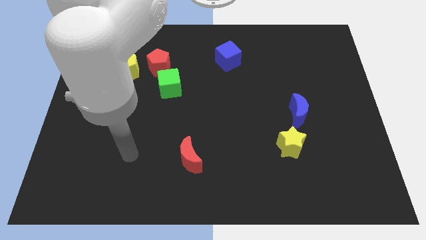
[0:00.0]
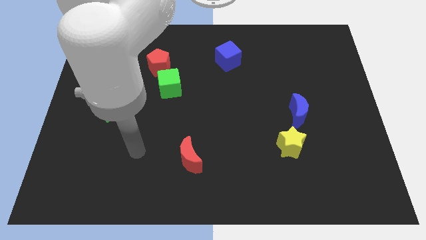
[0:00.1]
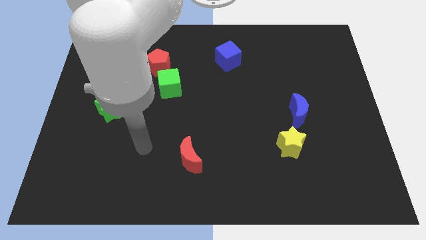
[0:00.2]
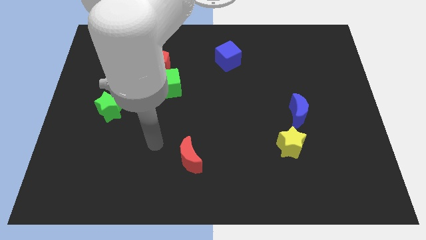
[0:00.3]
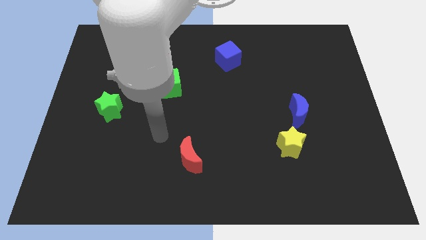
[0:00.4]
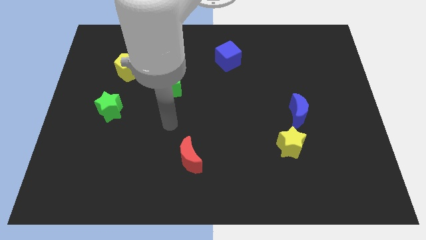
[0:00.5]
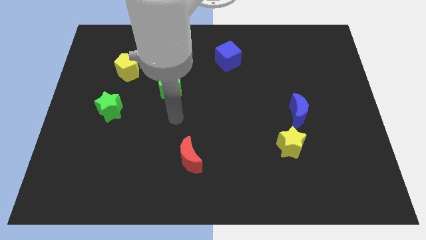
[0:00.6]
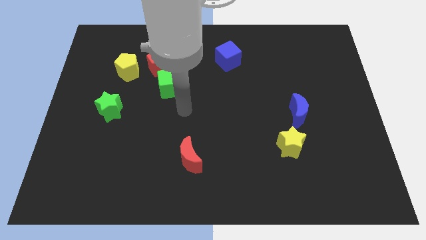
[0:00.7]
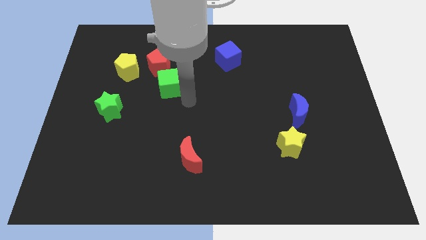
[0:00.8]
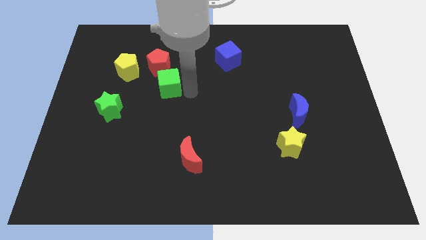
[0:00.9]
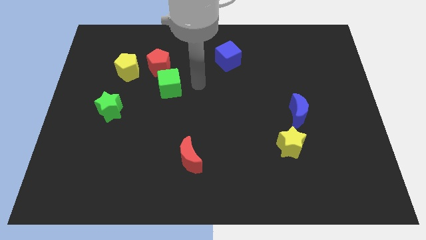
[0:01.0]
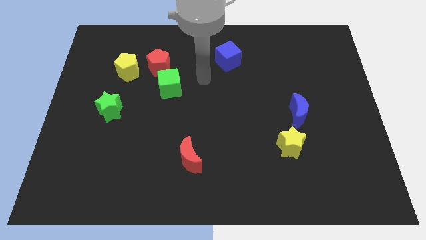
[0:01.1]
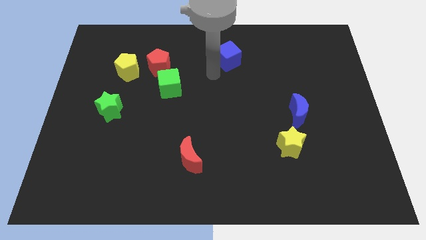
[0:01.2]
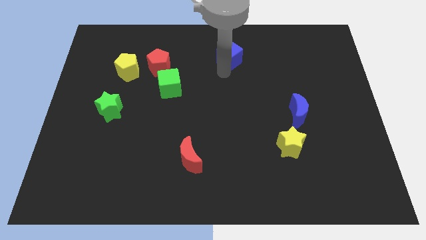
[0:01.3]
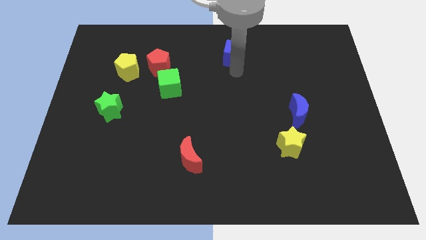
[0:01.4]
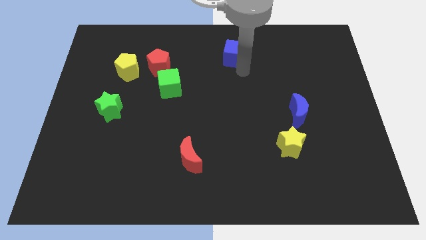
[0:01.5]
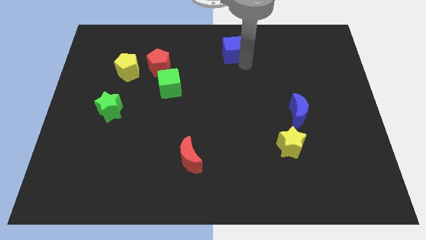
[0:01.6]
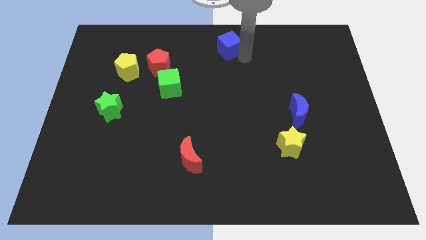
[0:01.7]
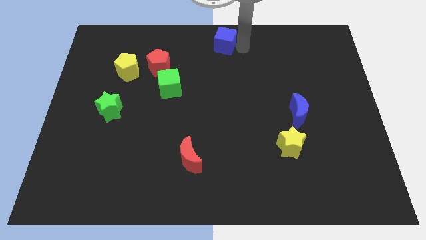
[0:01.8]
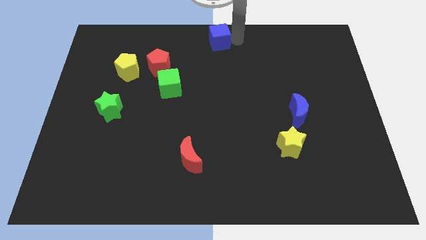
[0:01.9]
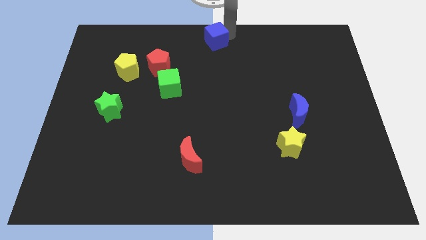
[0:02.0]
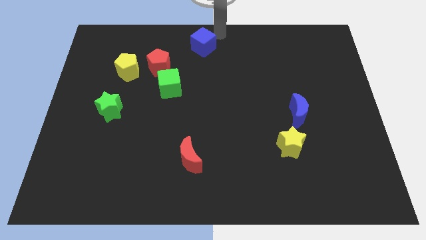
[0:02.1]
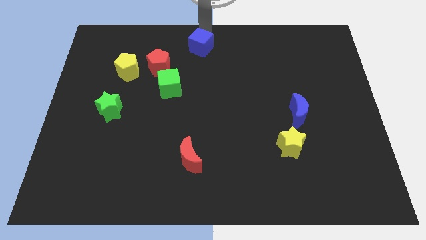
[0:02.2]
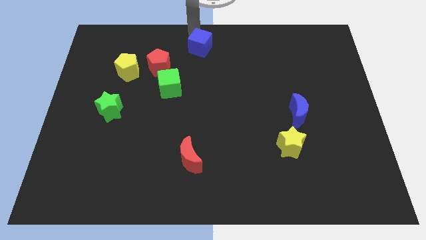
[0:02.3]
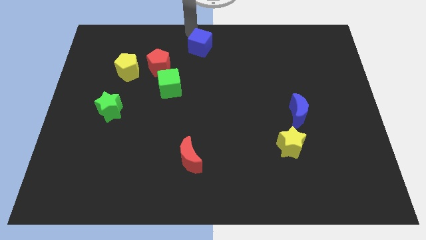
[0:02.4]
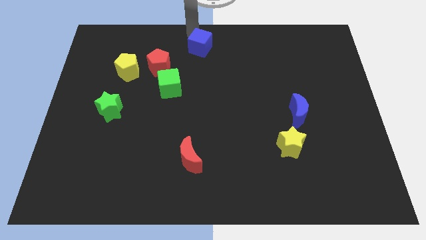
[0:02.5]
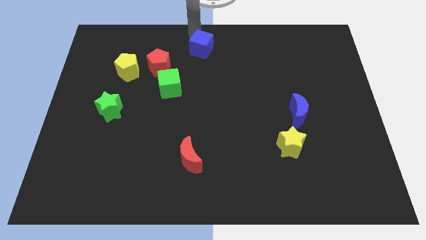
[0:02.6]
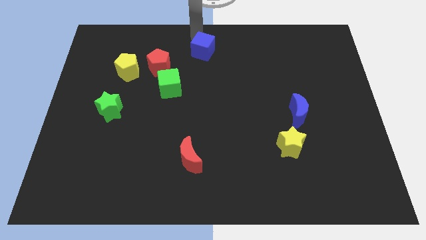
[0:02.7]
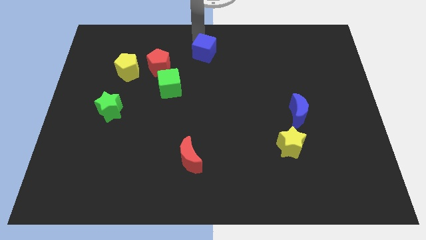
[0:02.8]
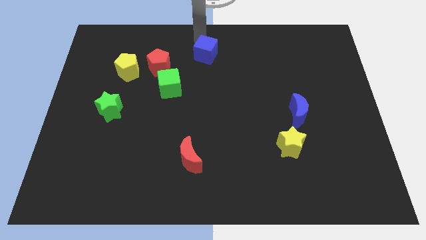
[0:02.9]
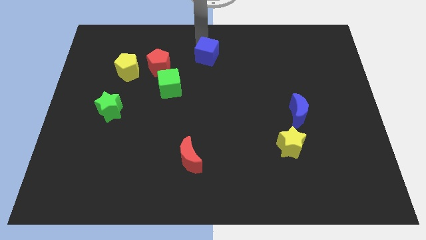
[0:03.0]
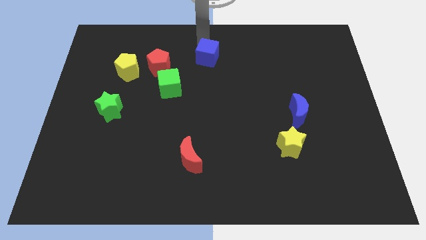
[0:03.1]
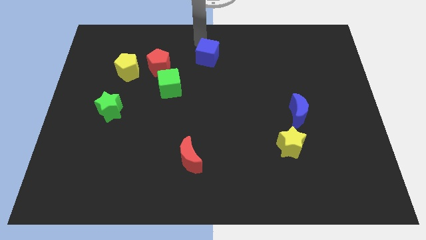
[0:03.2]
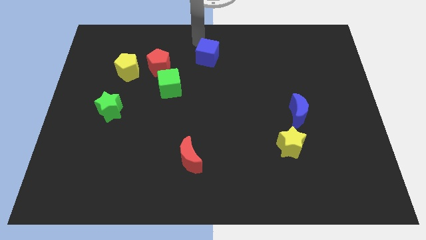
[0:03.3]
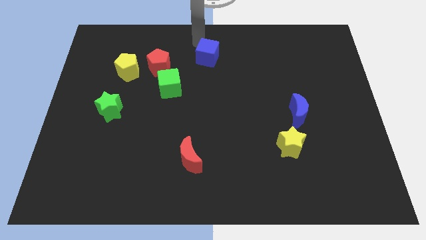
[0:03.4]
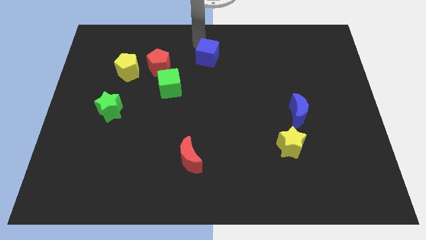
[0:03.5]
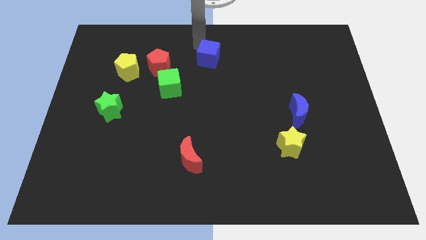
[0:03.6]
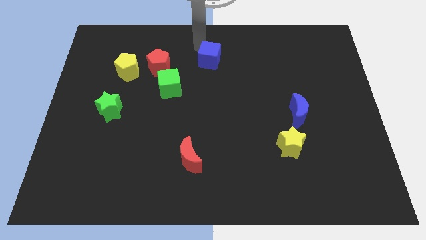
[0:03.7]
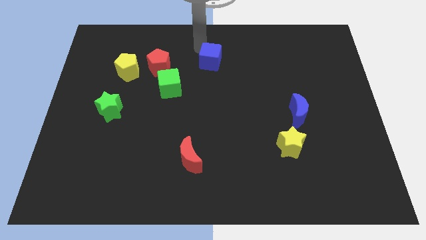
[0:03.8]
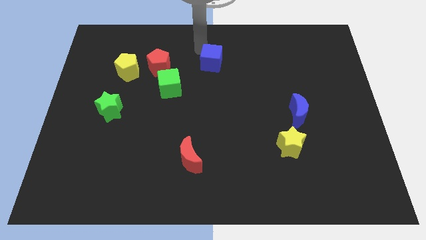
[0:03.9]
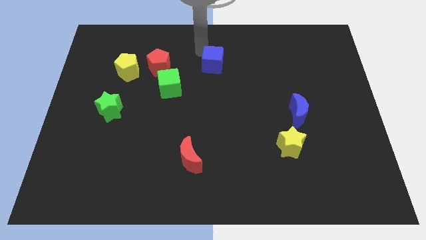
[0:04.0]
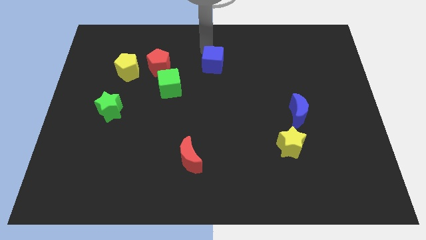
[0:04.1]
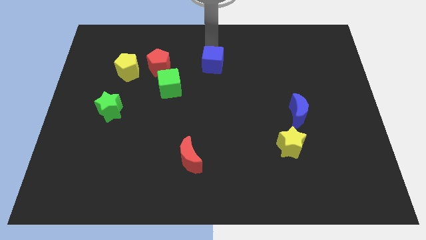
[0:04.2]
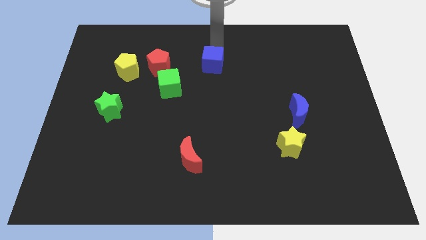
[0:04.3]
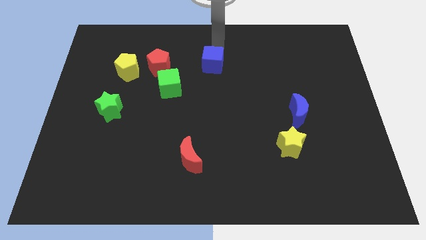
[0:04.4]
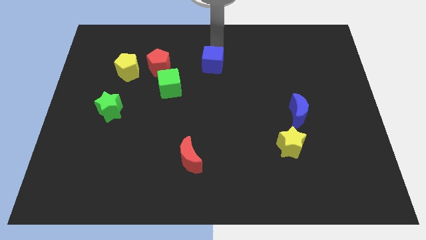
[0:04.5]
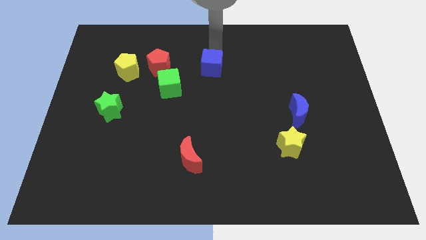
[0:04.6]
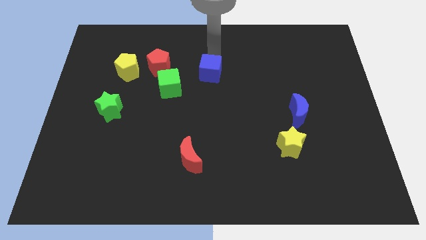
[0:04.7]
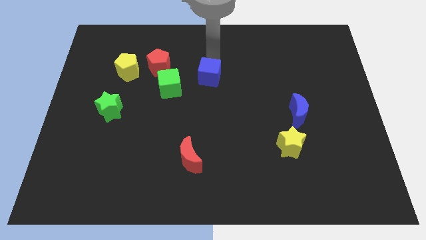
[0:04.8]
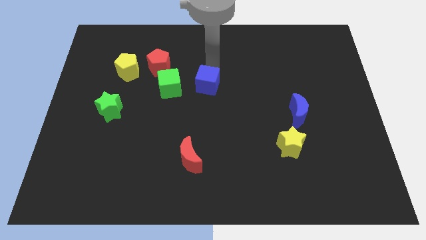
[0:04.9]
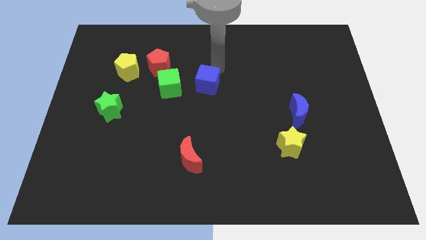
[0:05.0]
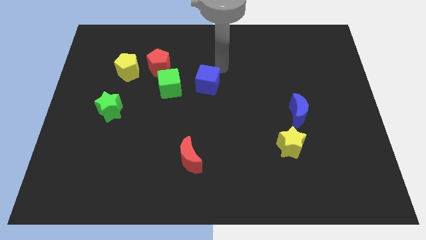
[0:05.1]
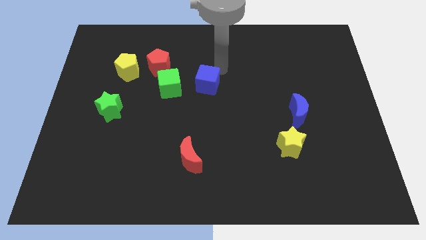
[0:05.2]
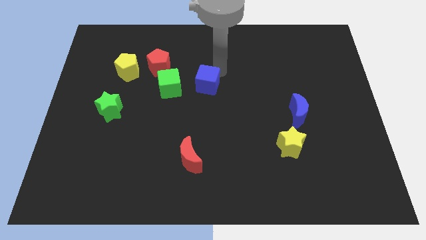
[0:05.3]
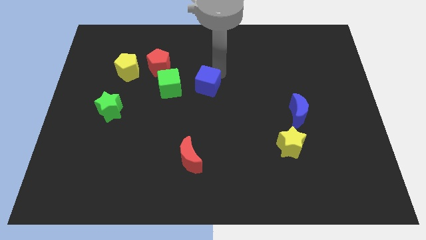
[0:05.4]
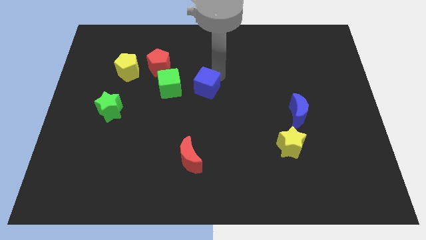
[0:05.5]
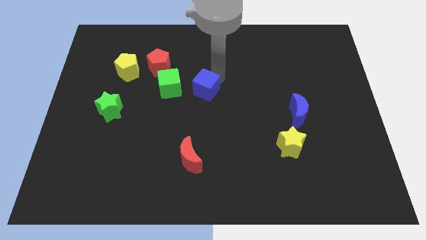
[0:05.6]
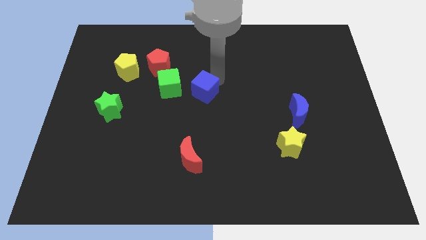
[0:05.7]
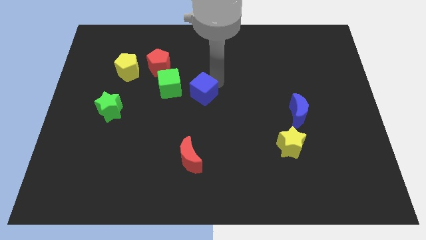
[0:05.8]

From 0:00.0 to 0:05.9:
push the blue cube to the bottom right of the green cube

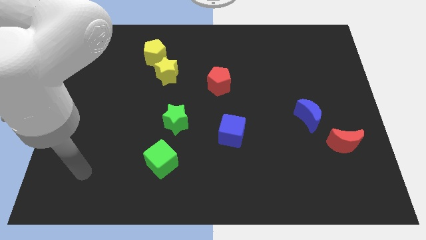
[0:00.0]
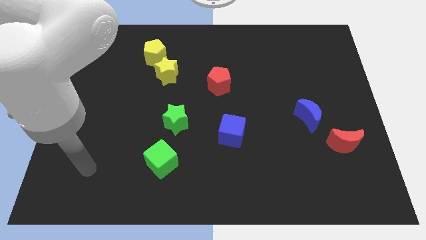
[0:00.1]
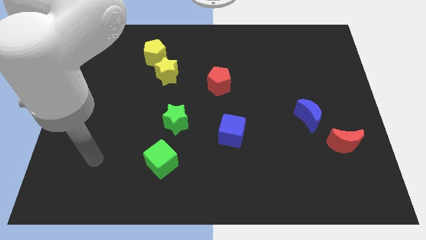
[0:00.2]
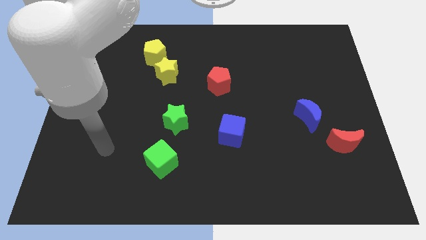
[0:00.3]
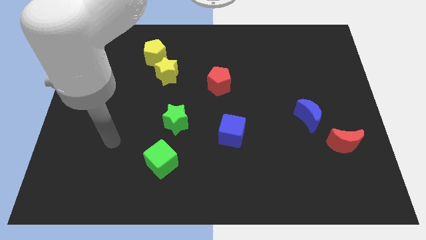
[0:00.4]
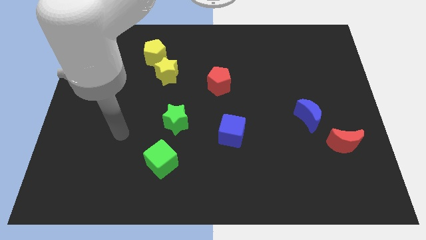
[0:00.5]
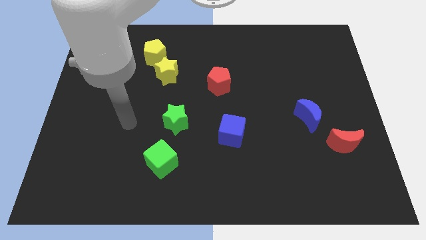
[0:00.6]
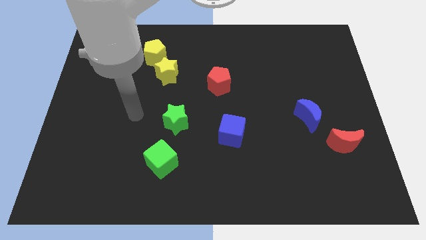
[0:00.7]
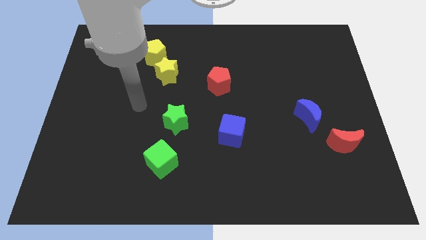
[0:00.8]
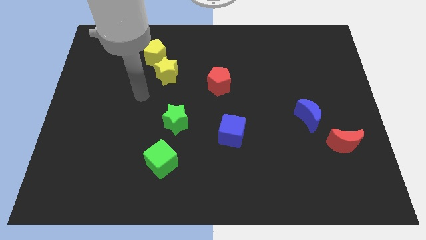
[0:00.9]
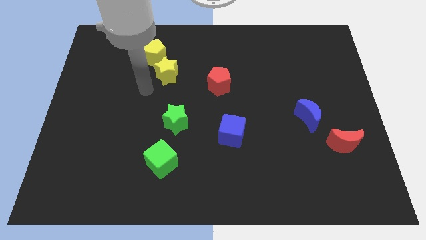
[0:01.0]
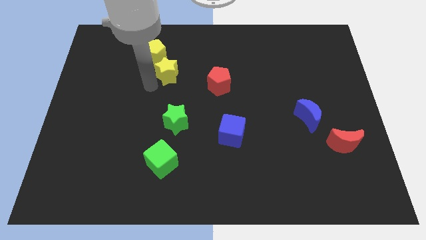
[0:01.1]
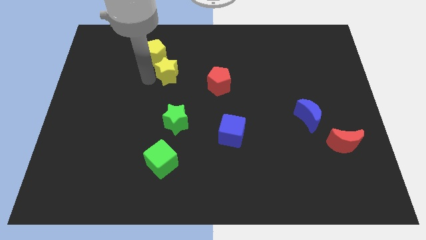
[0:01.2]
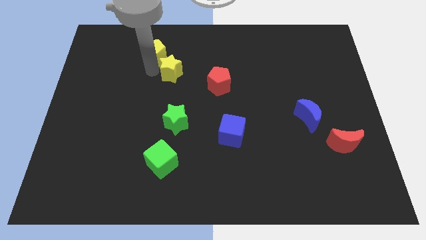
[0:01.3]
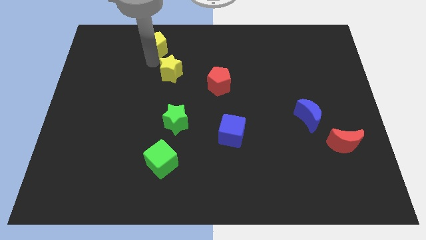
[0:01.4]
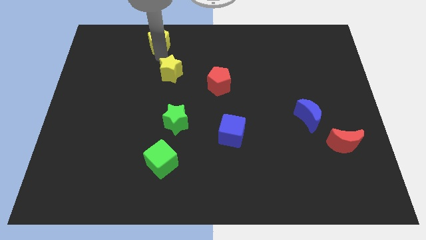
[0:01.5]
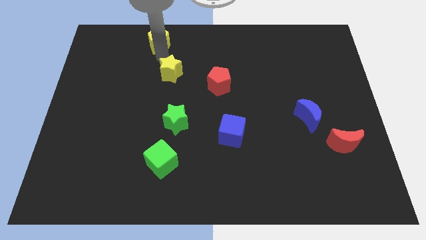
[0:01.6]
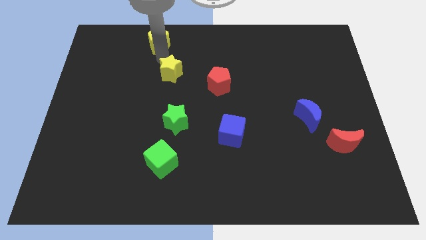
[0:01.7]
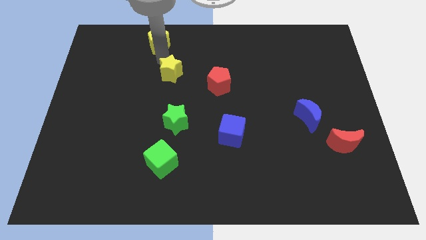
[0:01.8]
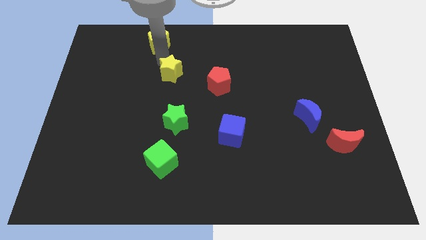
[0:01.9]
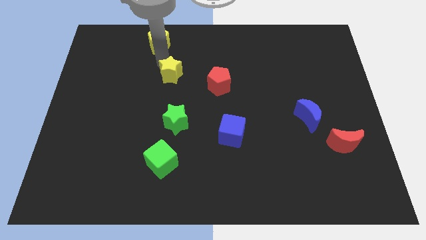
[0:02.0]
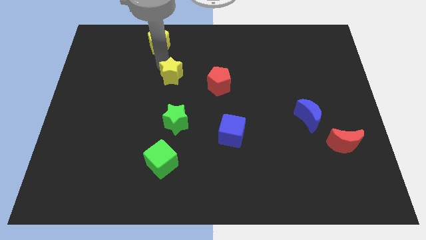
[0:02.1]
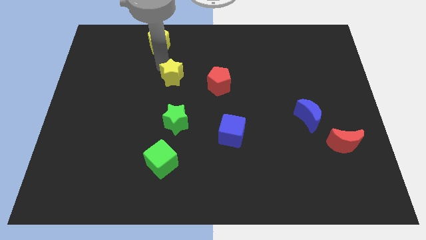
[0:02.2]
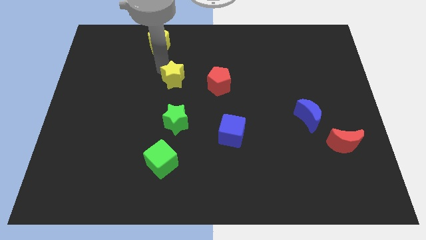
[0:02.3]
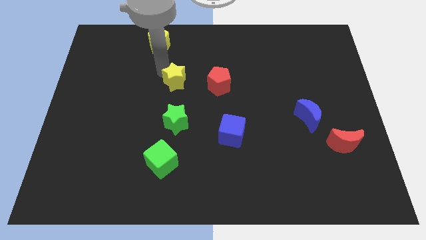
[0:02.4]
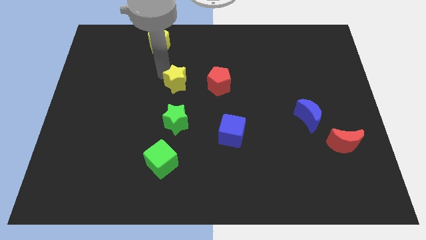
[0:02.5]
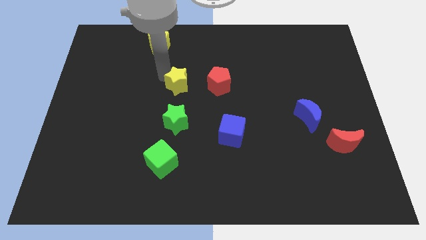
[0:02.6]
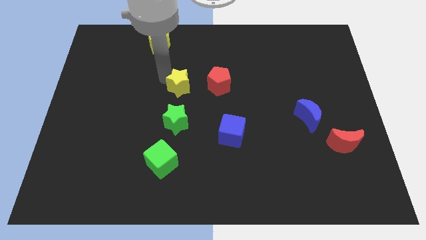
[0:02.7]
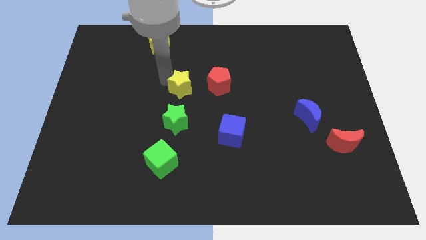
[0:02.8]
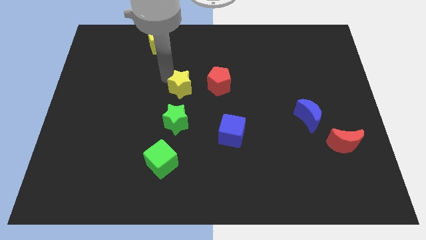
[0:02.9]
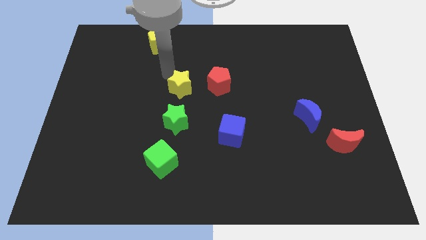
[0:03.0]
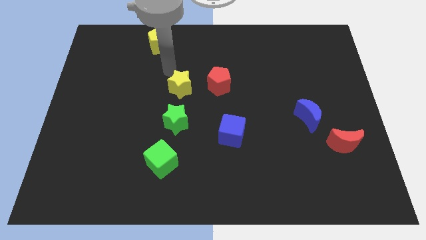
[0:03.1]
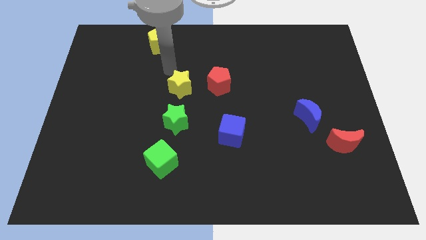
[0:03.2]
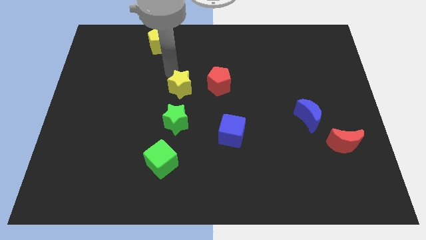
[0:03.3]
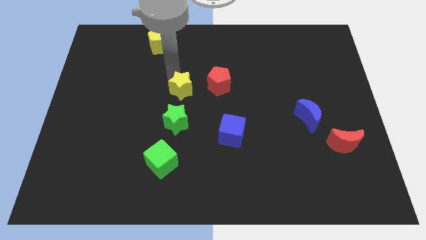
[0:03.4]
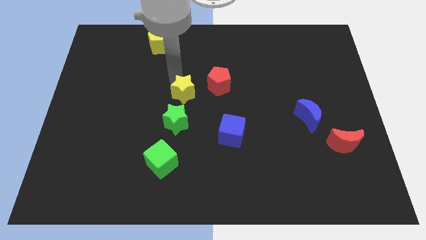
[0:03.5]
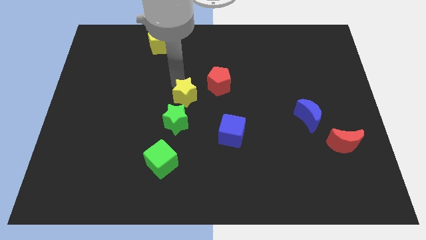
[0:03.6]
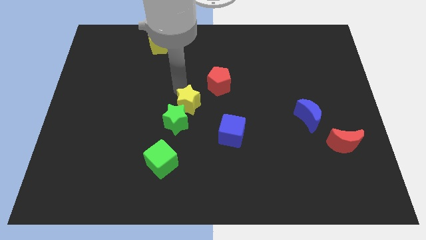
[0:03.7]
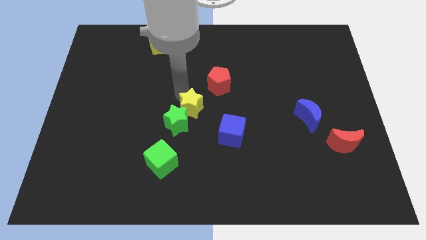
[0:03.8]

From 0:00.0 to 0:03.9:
put the yellow star to the top left of the blue cube
